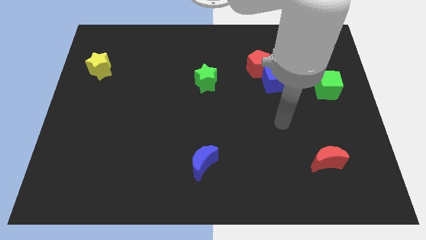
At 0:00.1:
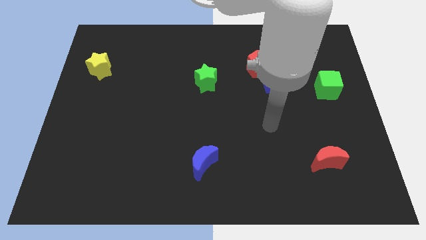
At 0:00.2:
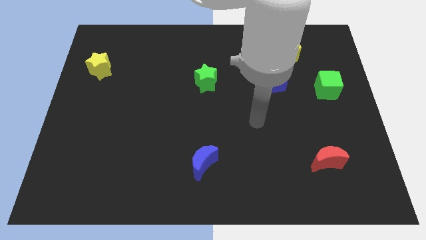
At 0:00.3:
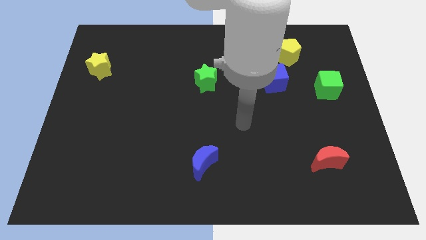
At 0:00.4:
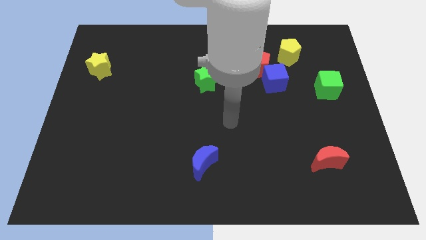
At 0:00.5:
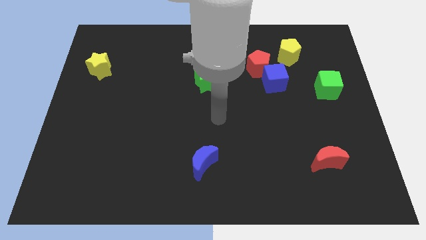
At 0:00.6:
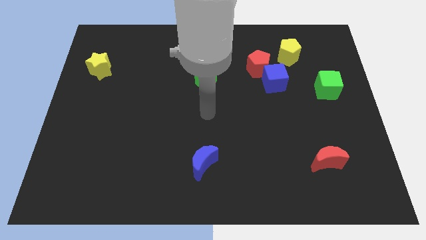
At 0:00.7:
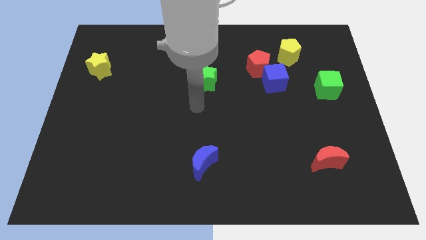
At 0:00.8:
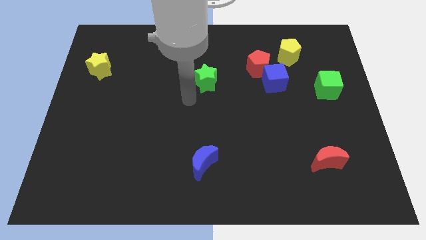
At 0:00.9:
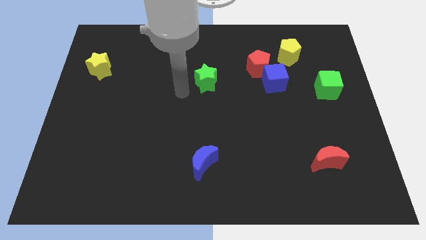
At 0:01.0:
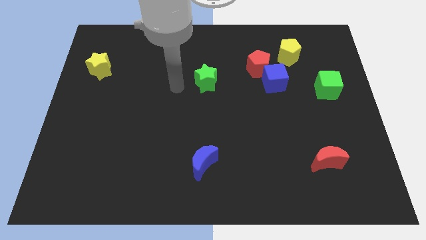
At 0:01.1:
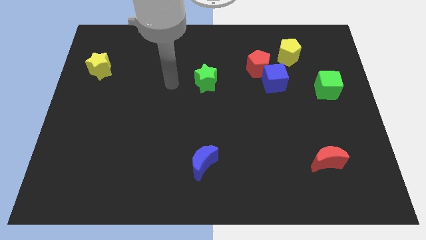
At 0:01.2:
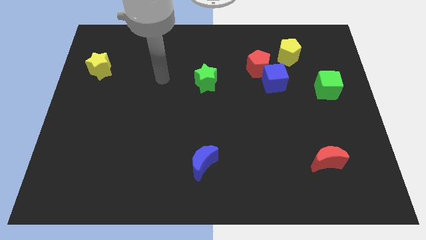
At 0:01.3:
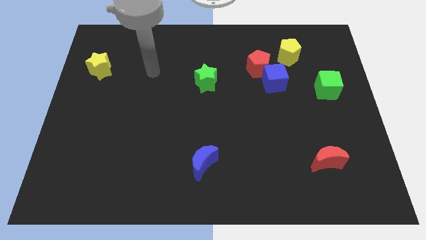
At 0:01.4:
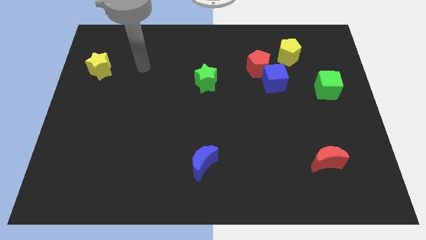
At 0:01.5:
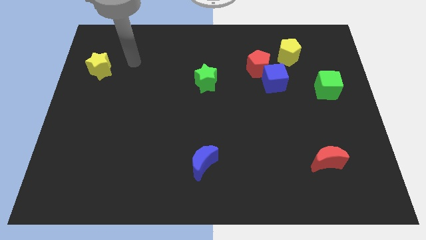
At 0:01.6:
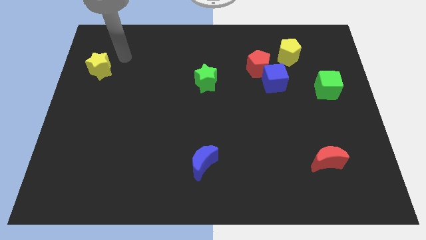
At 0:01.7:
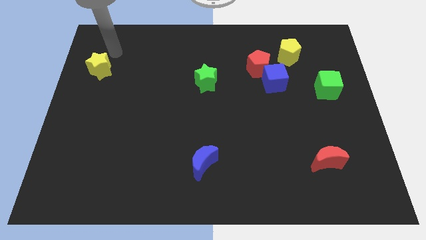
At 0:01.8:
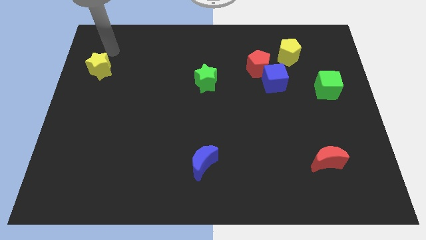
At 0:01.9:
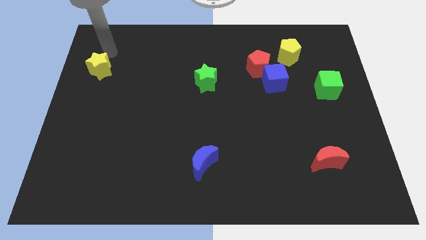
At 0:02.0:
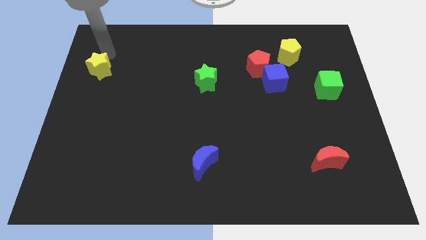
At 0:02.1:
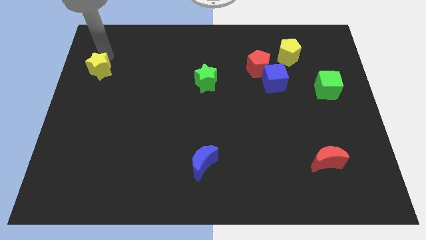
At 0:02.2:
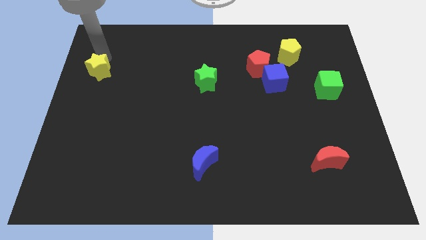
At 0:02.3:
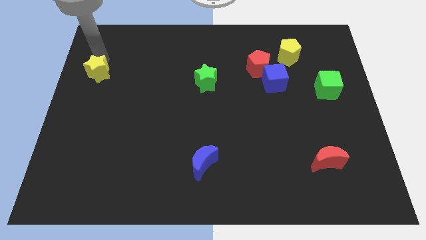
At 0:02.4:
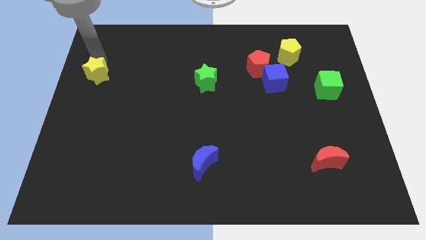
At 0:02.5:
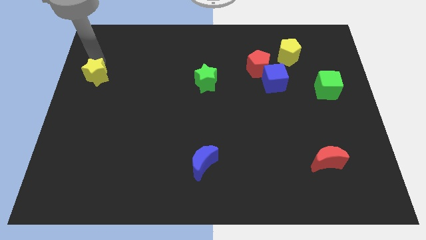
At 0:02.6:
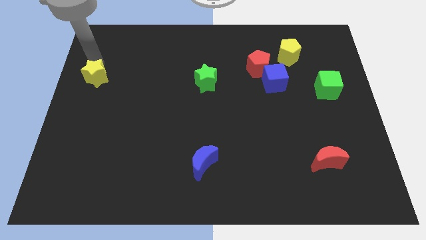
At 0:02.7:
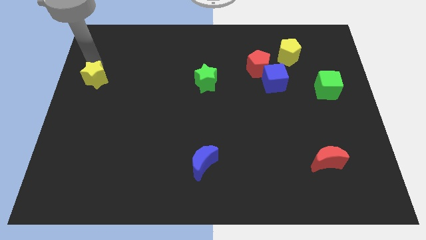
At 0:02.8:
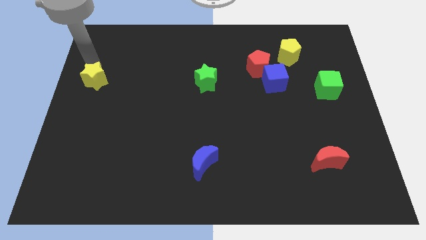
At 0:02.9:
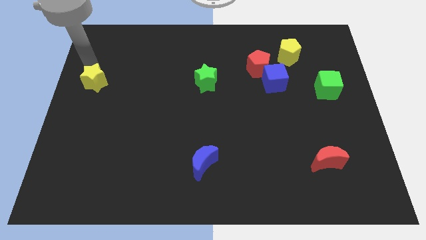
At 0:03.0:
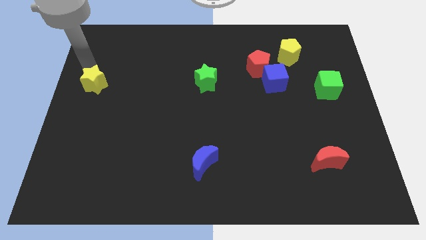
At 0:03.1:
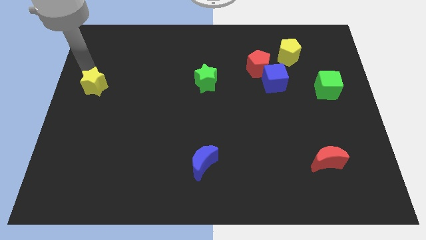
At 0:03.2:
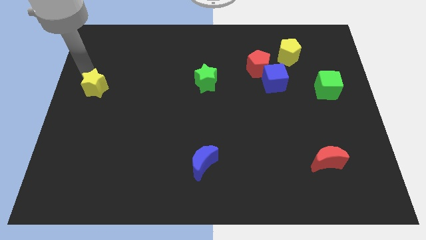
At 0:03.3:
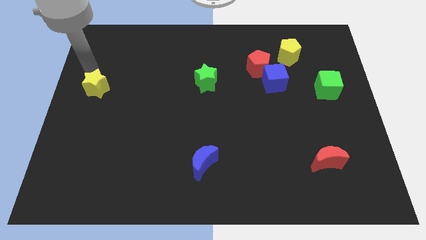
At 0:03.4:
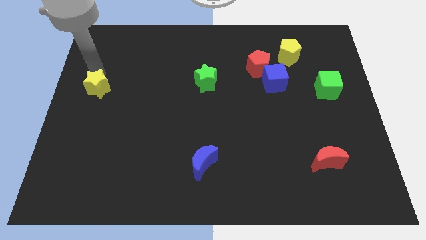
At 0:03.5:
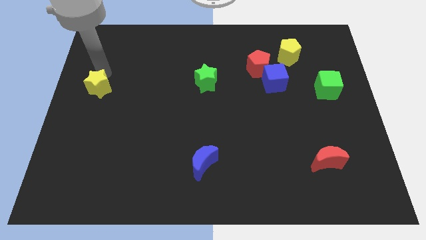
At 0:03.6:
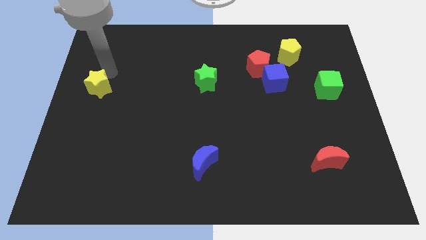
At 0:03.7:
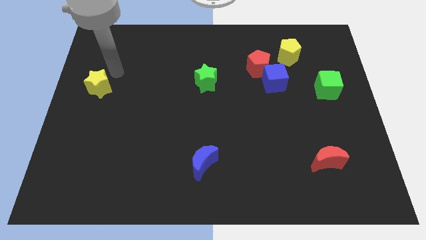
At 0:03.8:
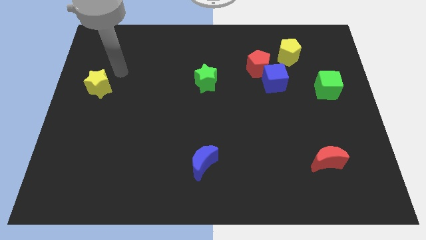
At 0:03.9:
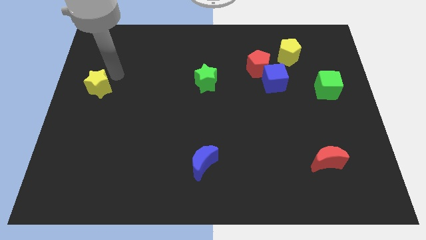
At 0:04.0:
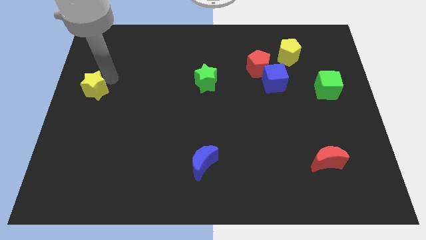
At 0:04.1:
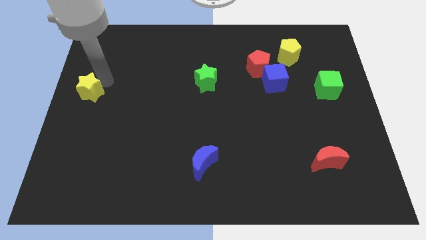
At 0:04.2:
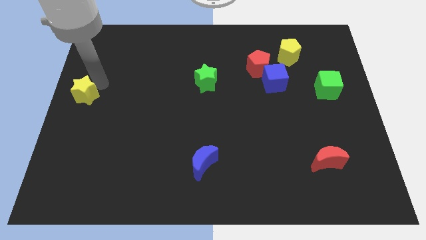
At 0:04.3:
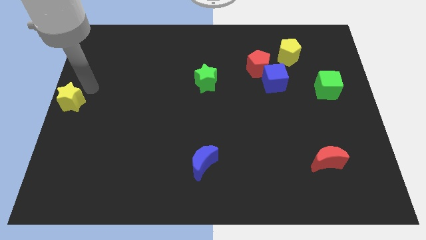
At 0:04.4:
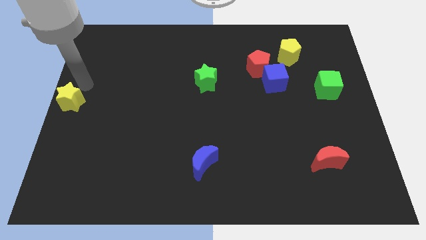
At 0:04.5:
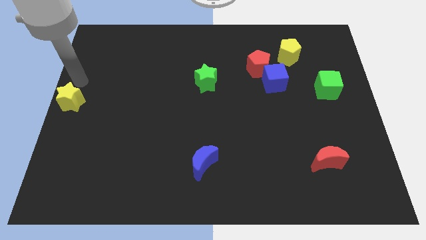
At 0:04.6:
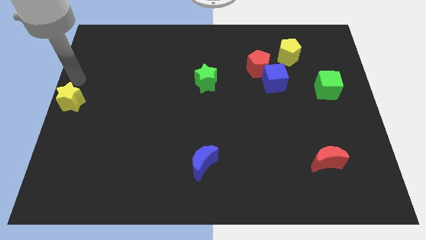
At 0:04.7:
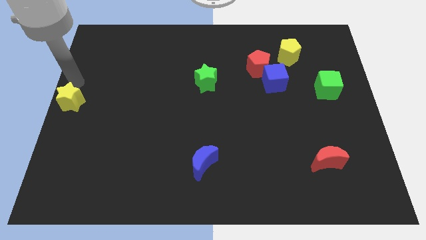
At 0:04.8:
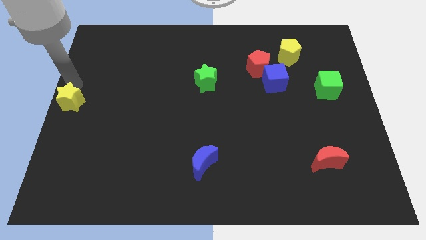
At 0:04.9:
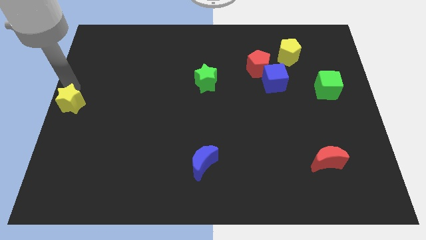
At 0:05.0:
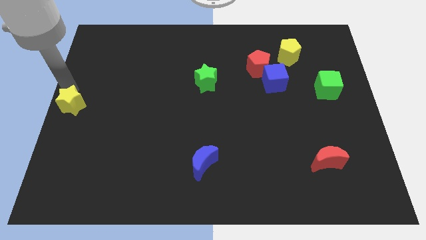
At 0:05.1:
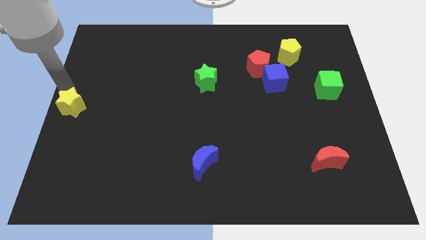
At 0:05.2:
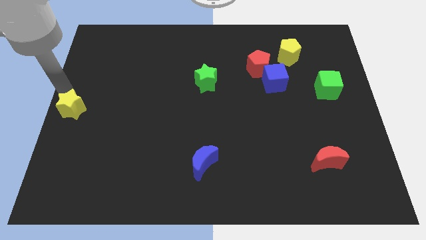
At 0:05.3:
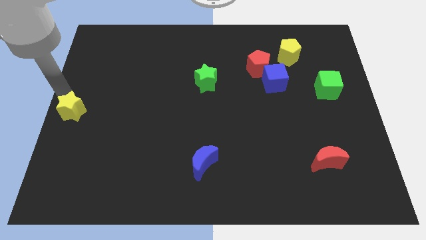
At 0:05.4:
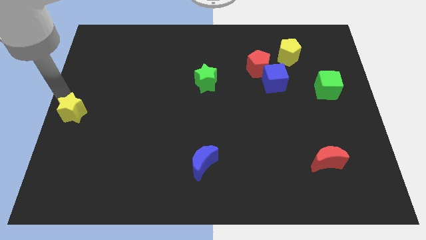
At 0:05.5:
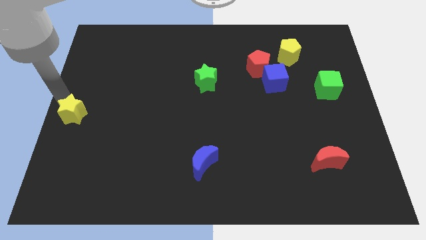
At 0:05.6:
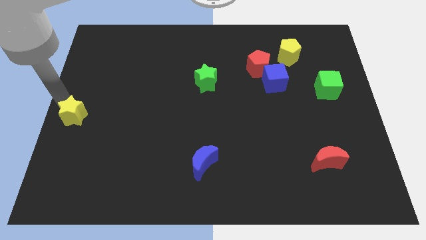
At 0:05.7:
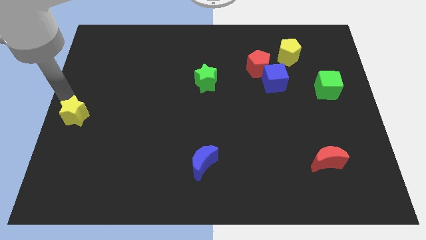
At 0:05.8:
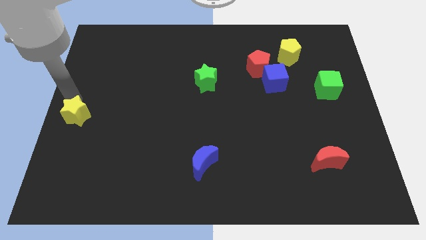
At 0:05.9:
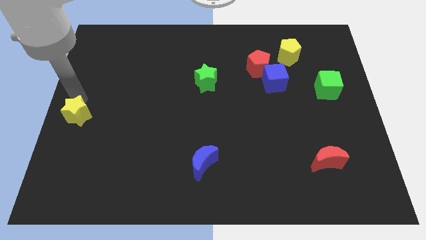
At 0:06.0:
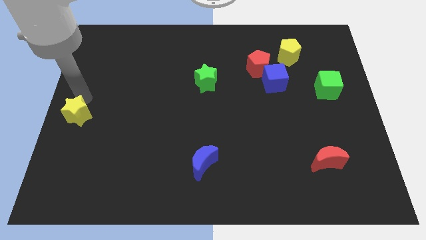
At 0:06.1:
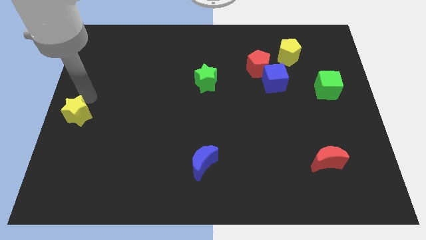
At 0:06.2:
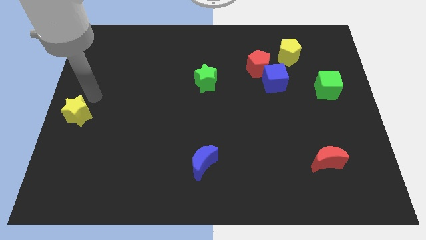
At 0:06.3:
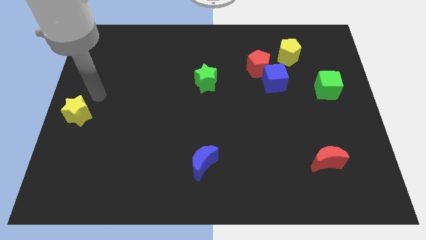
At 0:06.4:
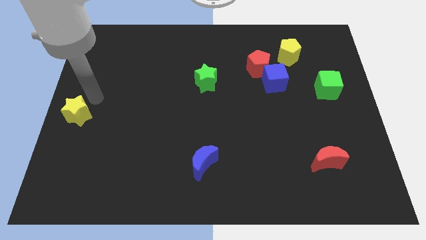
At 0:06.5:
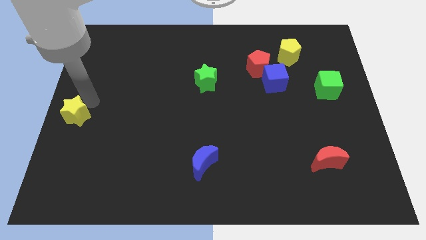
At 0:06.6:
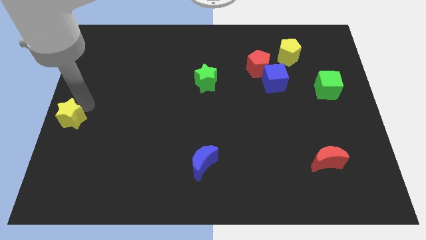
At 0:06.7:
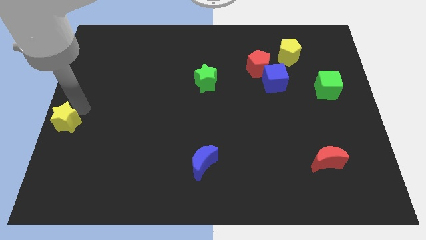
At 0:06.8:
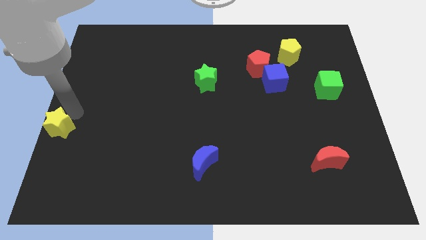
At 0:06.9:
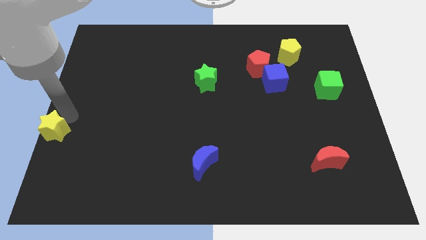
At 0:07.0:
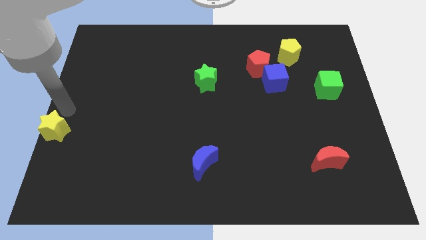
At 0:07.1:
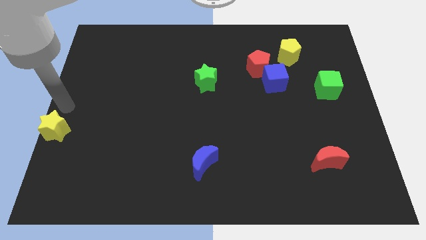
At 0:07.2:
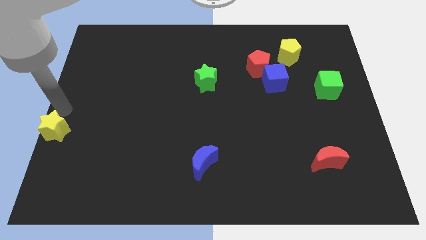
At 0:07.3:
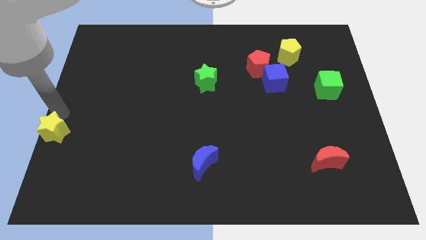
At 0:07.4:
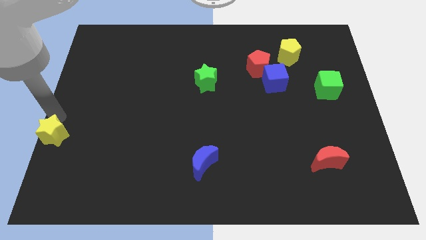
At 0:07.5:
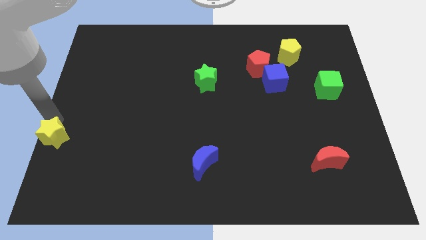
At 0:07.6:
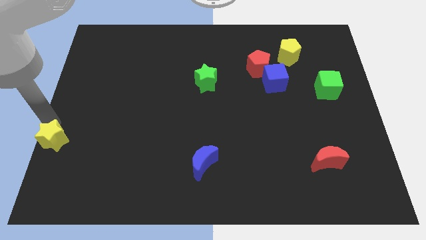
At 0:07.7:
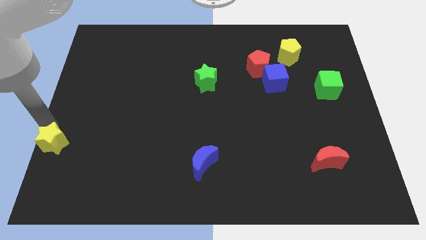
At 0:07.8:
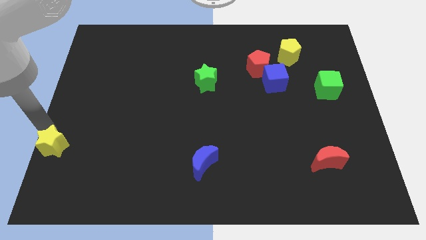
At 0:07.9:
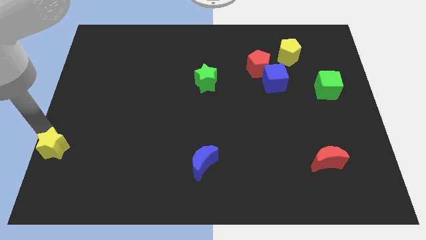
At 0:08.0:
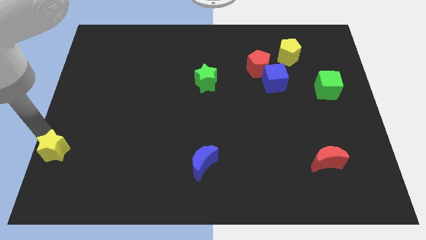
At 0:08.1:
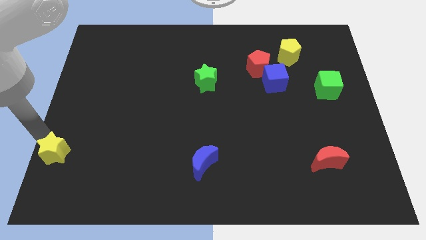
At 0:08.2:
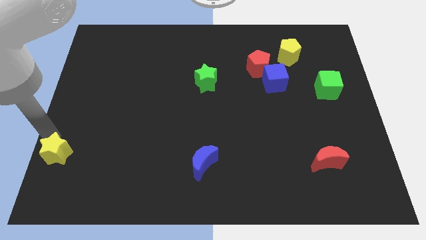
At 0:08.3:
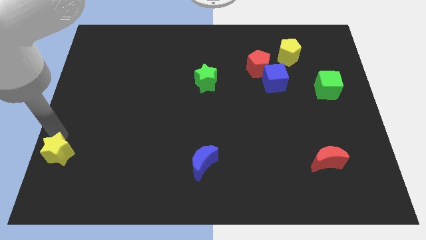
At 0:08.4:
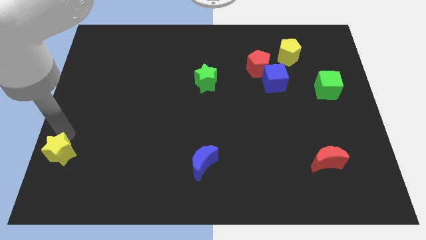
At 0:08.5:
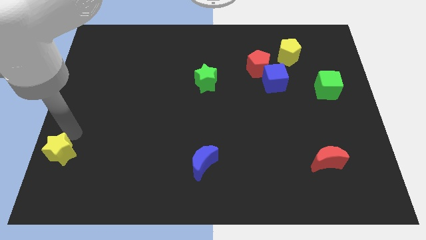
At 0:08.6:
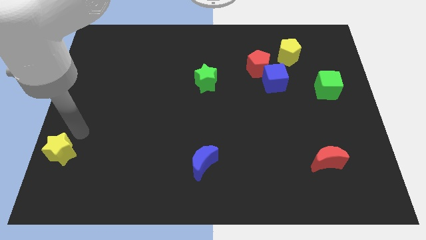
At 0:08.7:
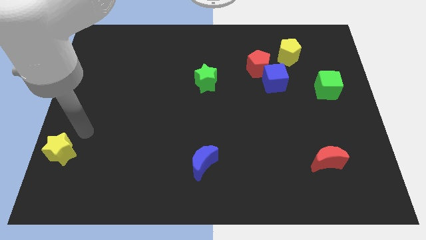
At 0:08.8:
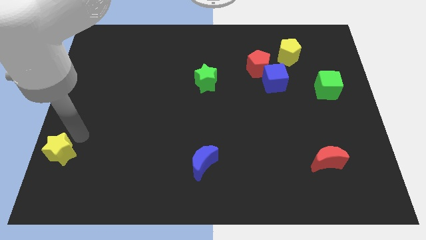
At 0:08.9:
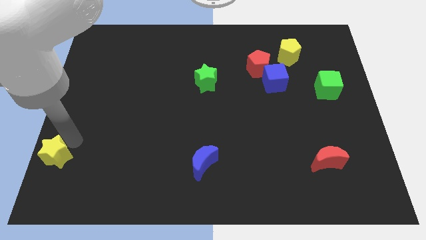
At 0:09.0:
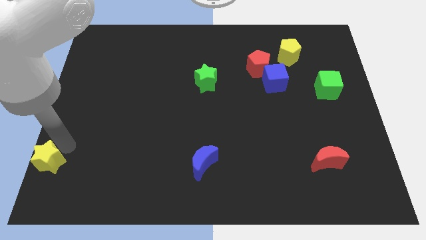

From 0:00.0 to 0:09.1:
push the yellow star to the bottom left corner
